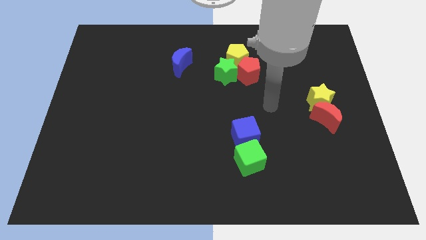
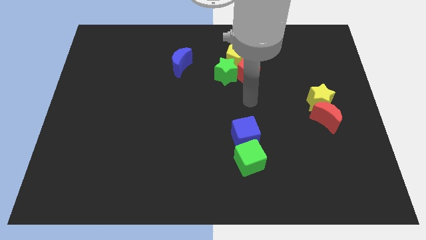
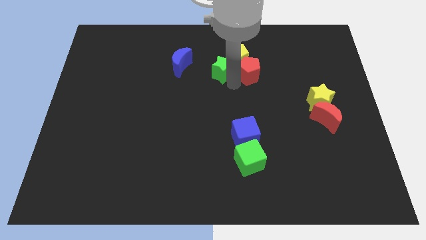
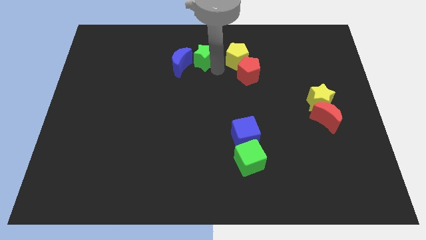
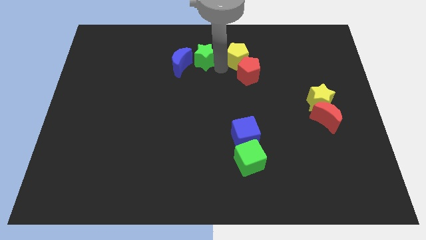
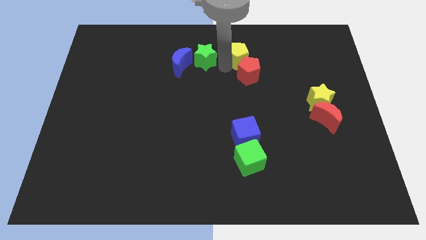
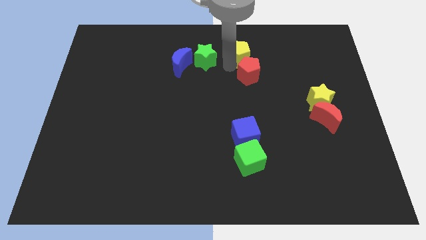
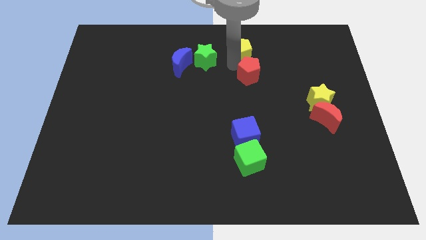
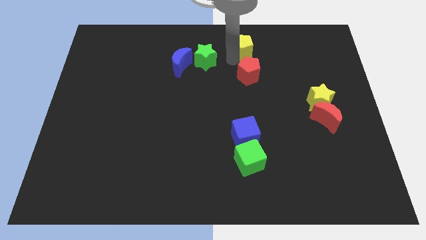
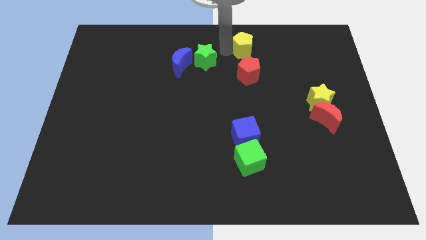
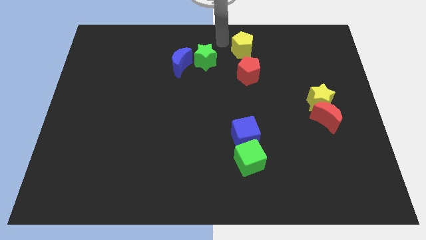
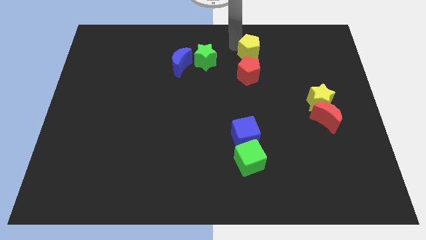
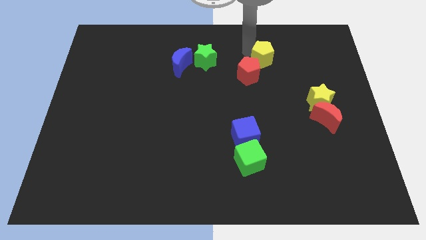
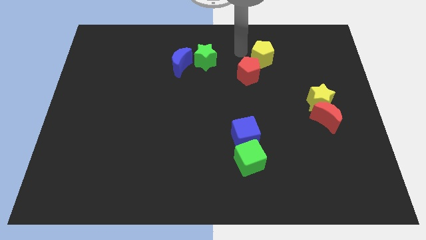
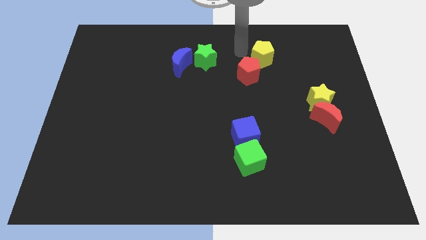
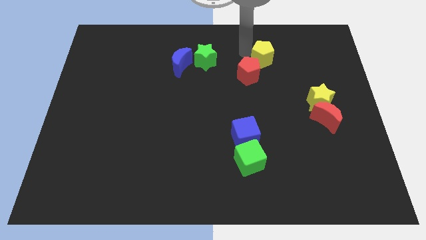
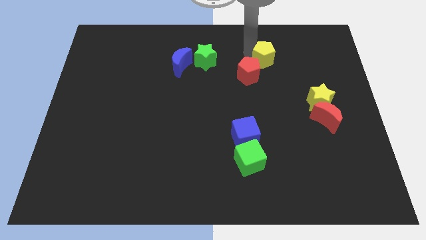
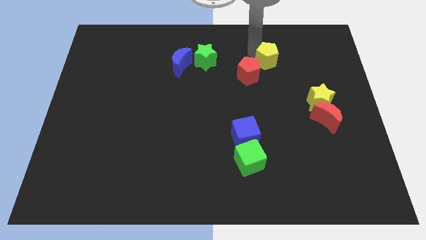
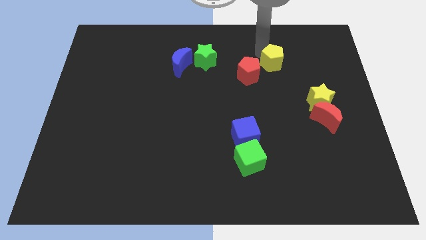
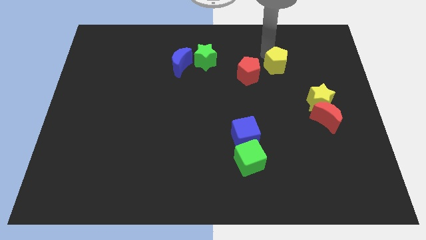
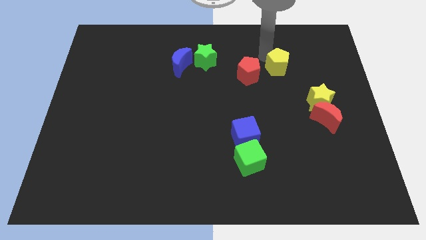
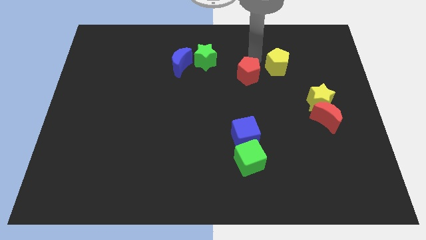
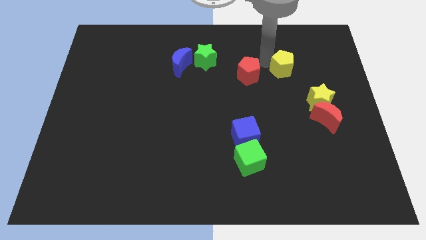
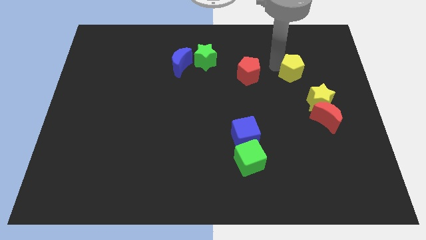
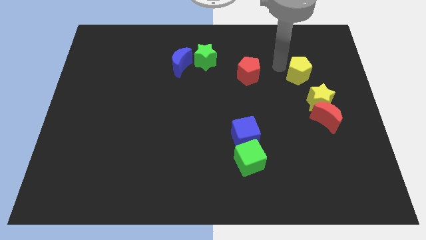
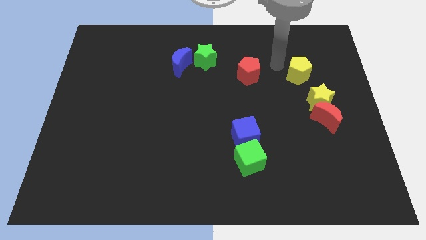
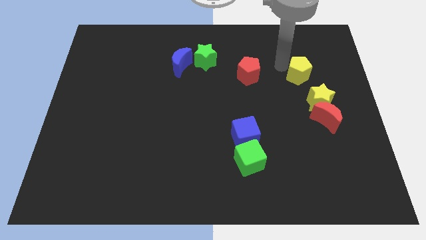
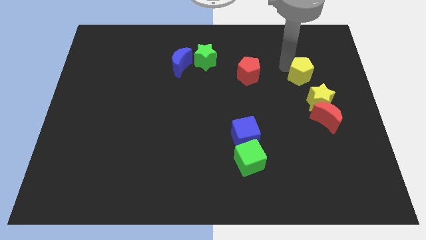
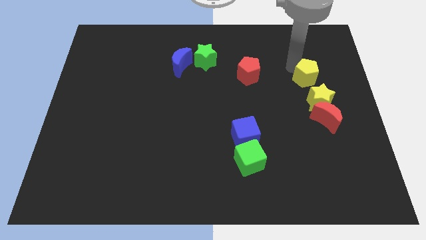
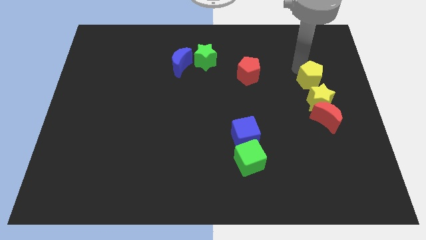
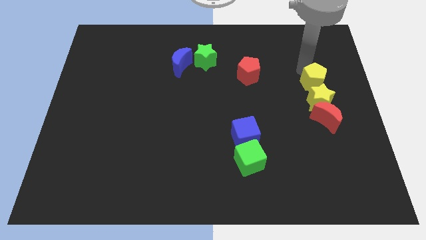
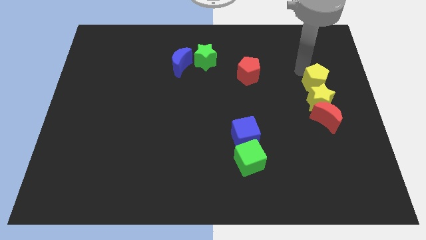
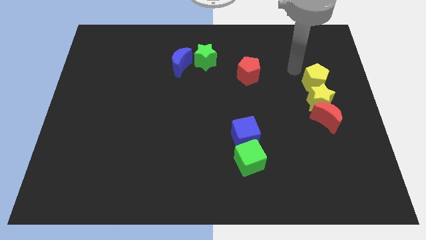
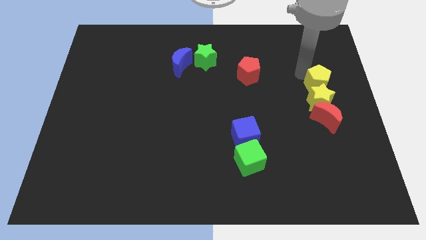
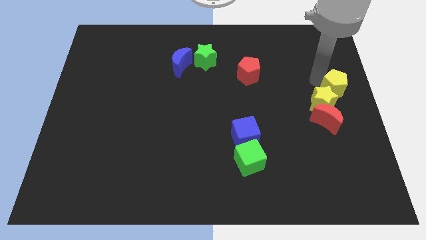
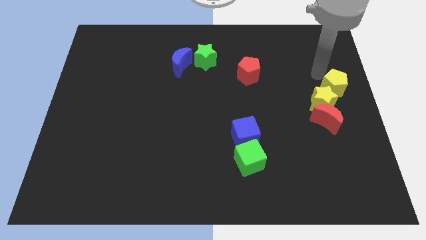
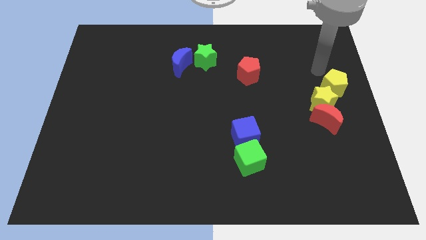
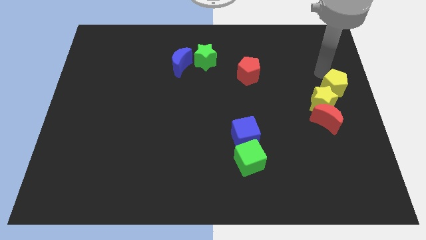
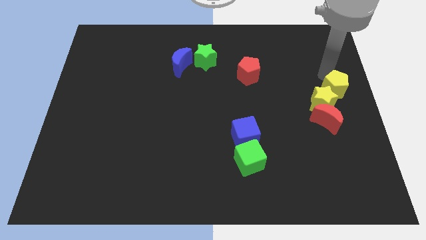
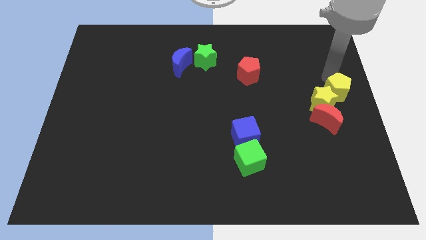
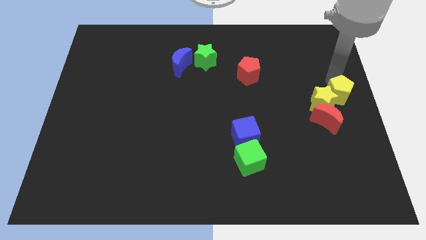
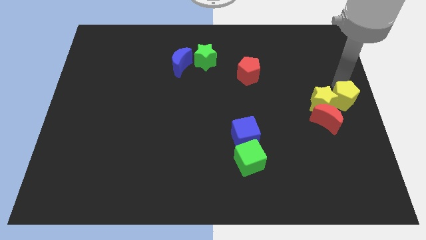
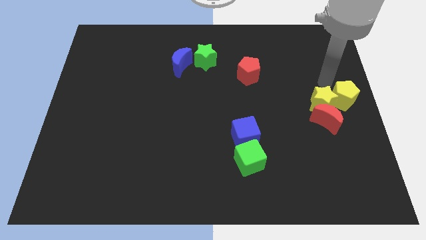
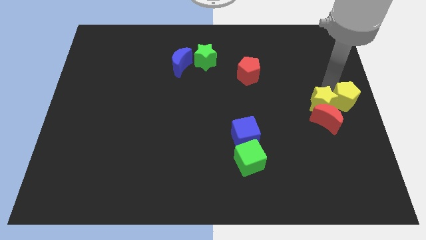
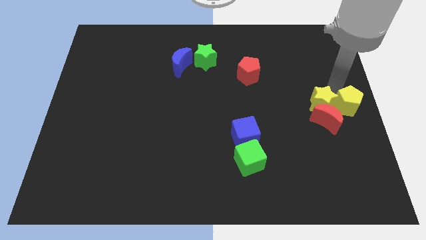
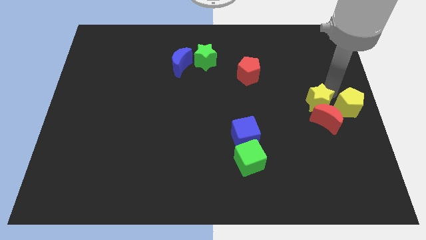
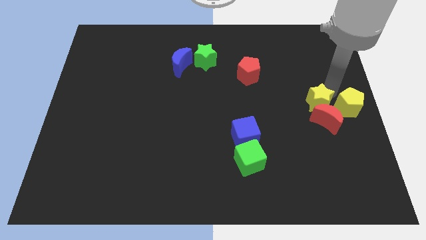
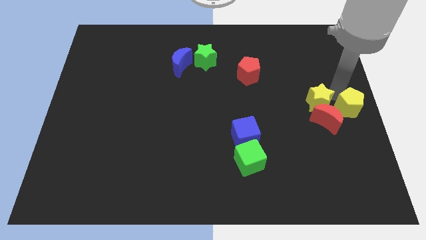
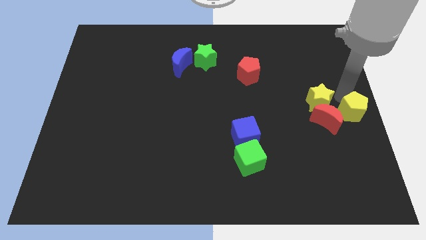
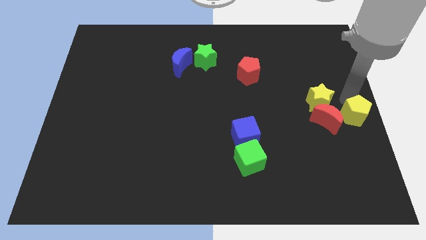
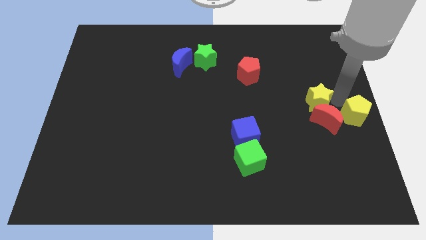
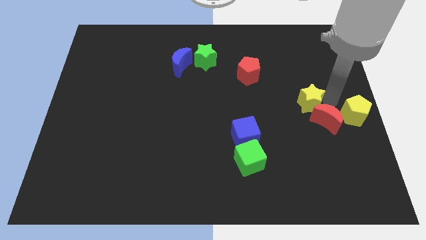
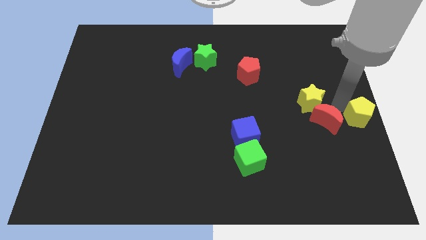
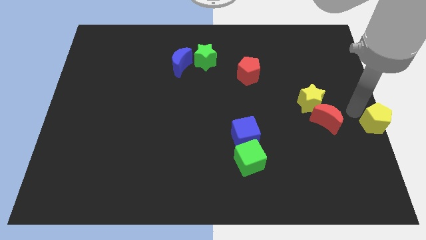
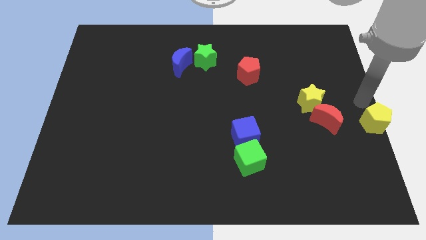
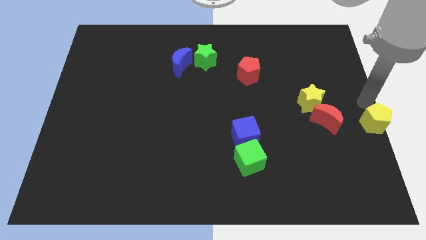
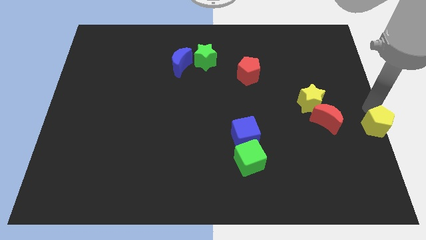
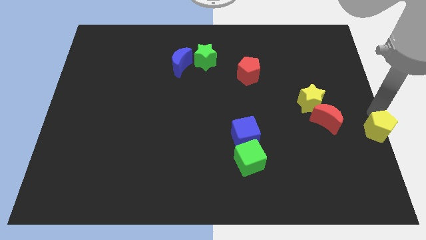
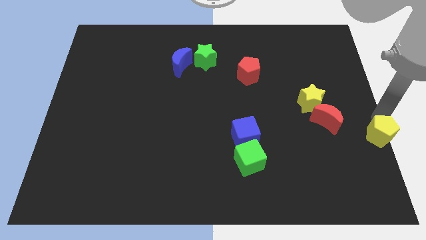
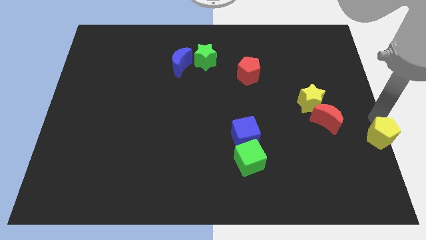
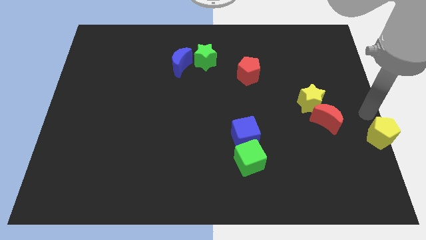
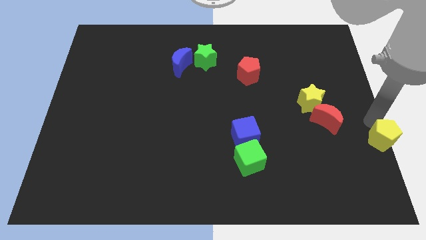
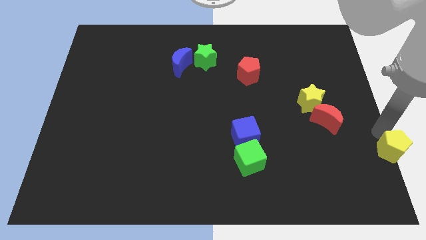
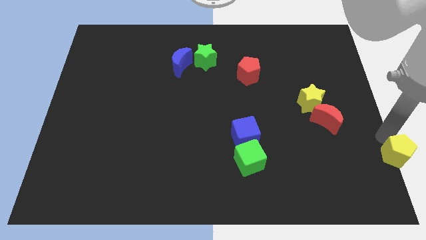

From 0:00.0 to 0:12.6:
move the yellow pentagon to the bottom right of the board
